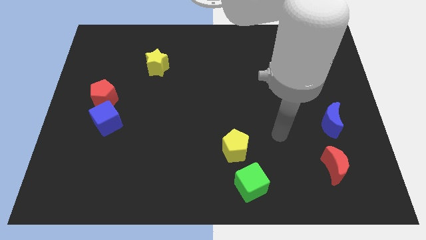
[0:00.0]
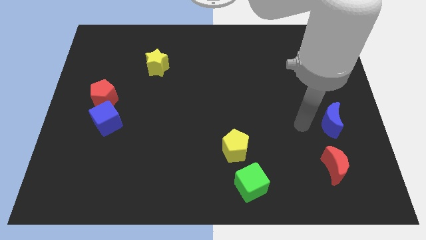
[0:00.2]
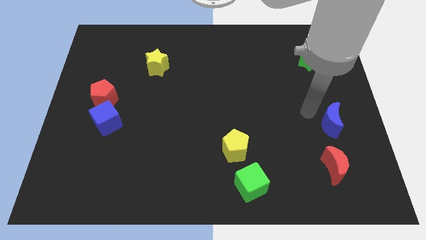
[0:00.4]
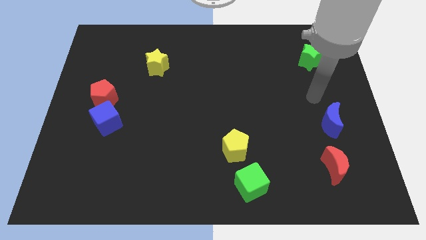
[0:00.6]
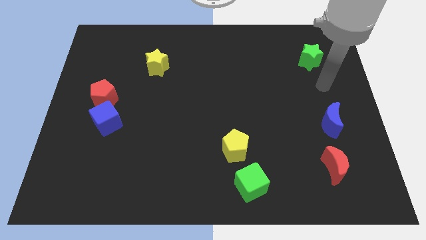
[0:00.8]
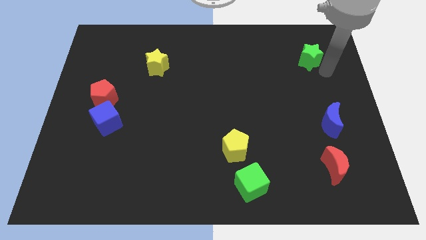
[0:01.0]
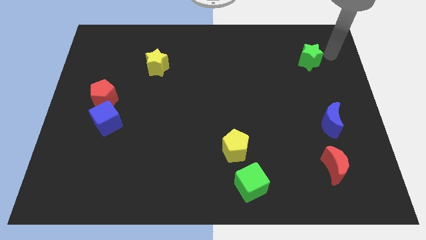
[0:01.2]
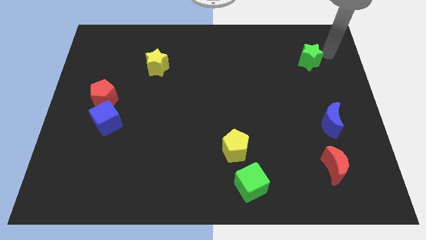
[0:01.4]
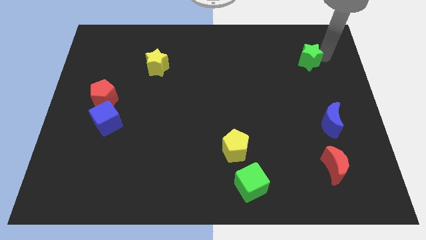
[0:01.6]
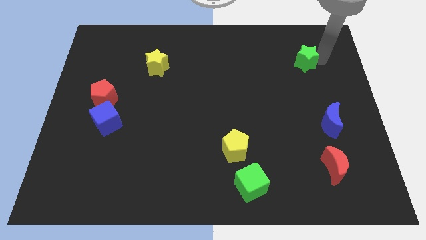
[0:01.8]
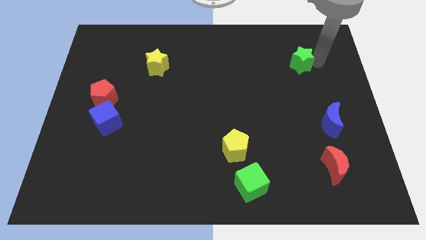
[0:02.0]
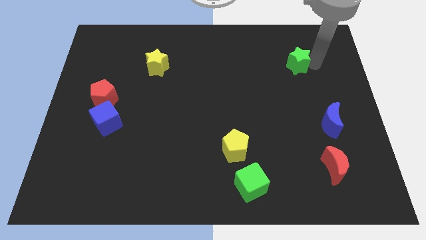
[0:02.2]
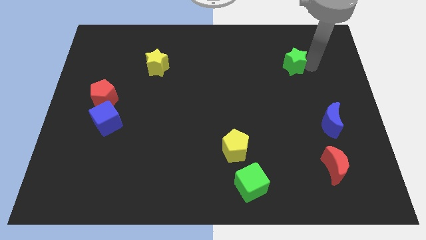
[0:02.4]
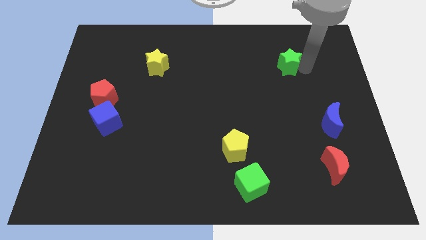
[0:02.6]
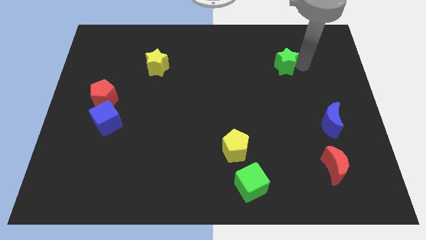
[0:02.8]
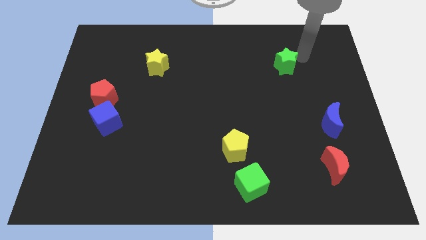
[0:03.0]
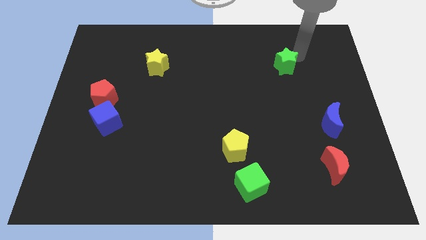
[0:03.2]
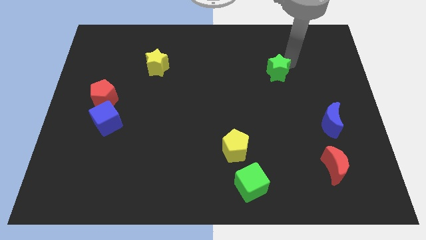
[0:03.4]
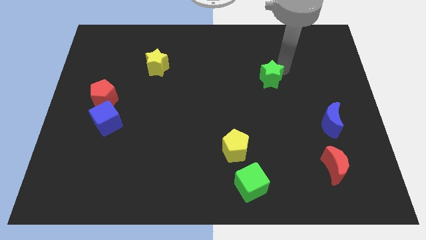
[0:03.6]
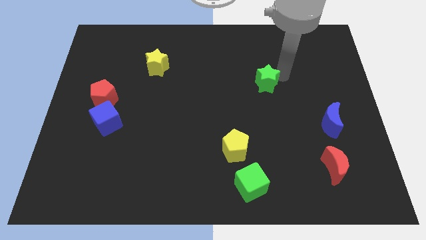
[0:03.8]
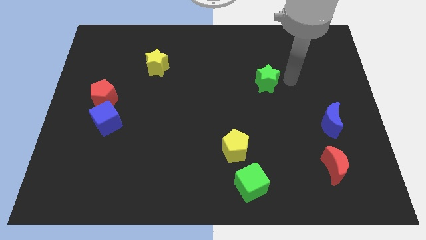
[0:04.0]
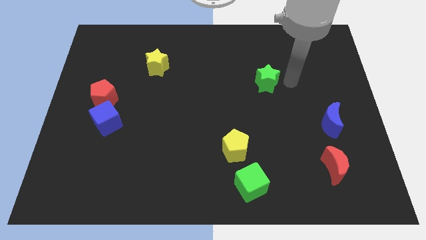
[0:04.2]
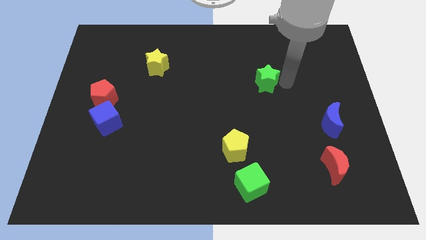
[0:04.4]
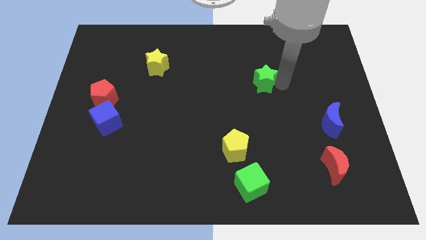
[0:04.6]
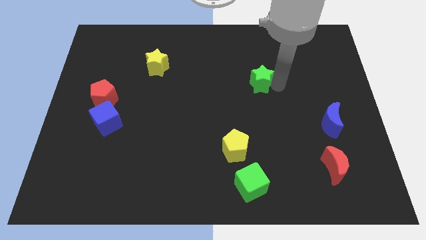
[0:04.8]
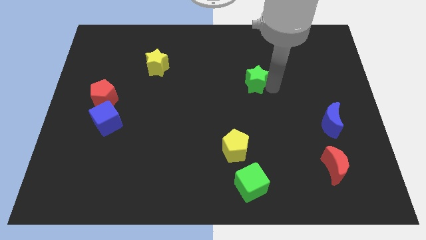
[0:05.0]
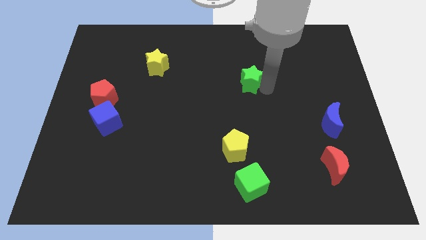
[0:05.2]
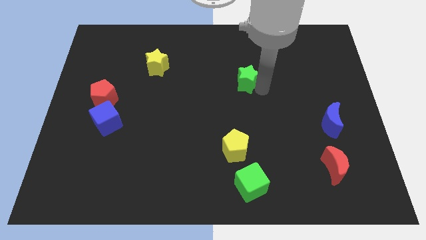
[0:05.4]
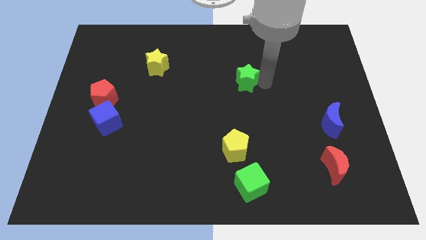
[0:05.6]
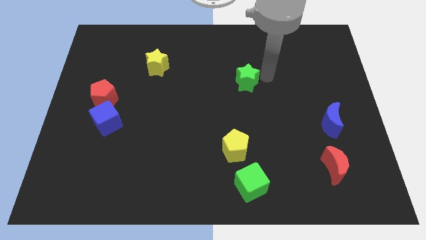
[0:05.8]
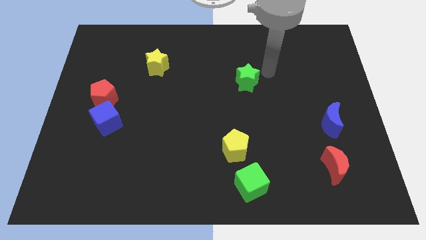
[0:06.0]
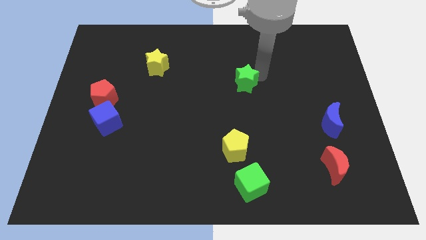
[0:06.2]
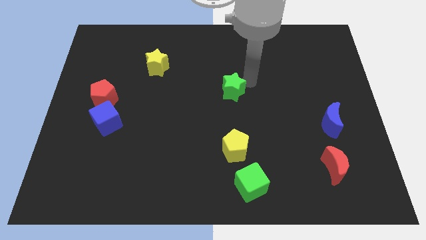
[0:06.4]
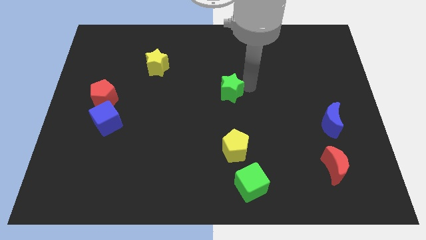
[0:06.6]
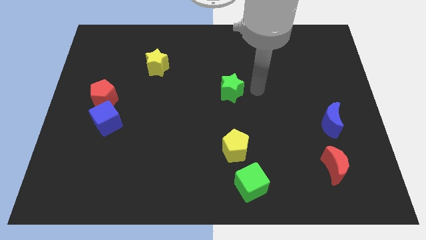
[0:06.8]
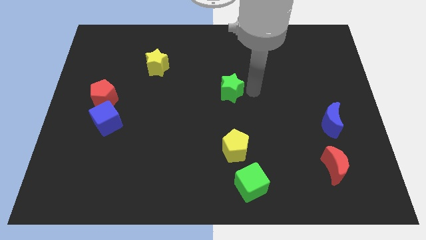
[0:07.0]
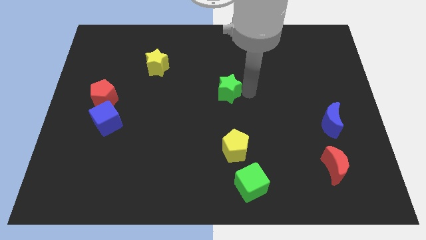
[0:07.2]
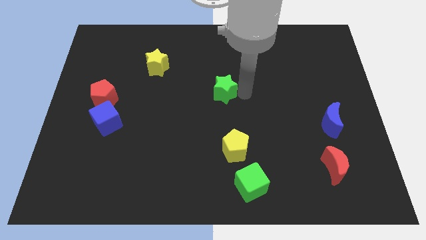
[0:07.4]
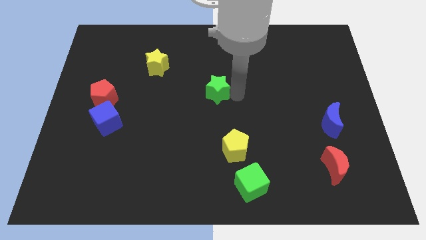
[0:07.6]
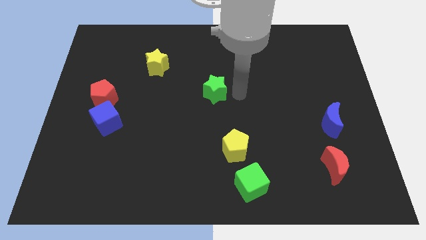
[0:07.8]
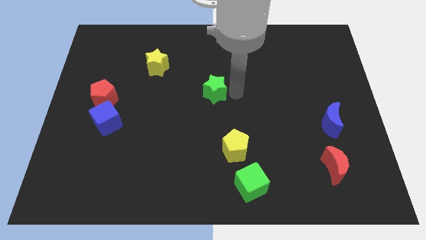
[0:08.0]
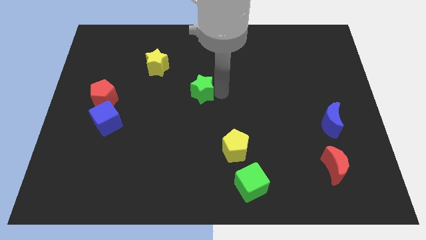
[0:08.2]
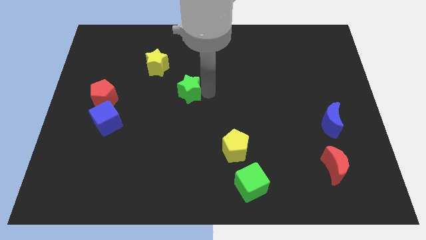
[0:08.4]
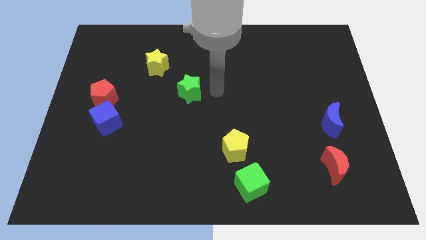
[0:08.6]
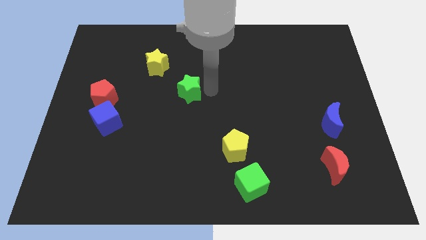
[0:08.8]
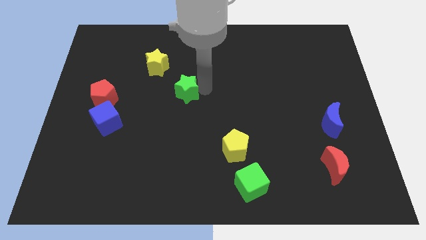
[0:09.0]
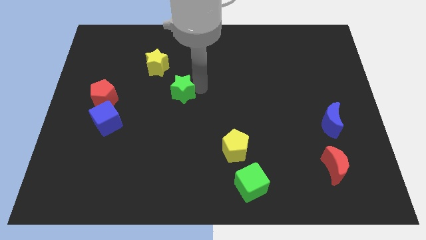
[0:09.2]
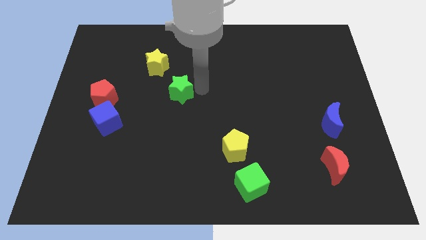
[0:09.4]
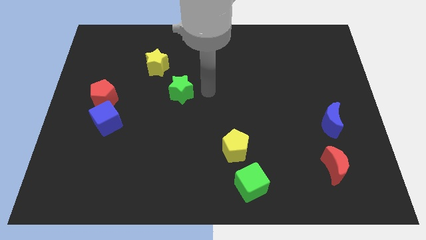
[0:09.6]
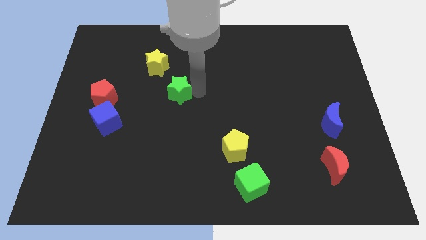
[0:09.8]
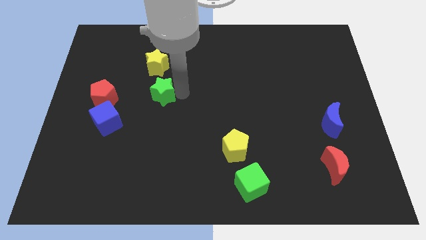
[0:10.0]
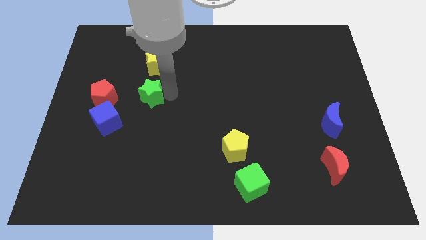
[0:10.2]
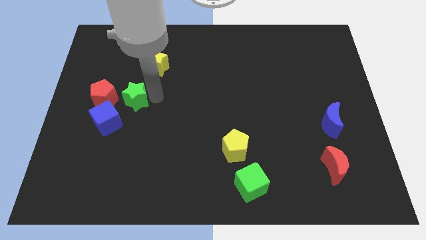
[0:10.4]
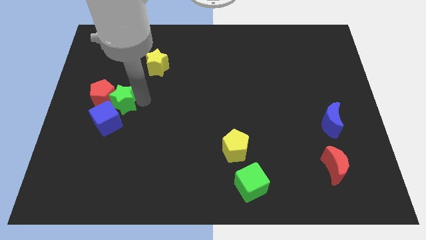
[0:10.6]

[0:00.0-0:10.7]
put the green star towards the red pentagon

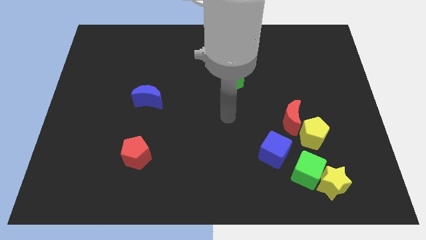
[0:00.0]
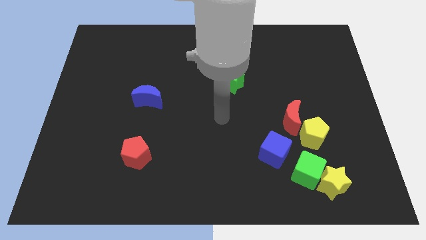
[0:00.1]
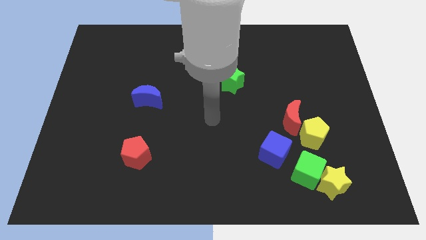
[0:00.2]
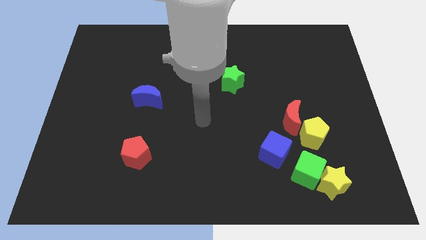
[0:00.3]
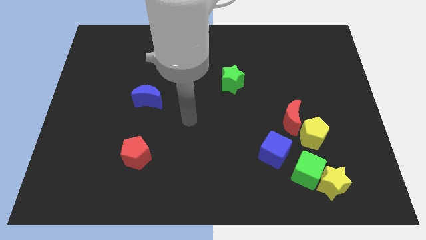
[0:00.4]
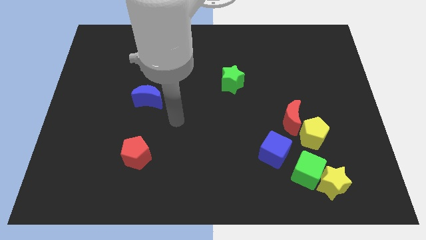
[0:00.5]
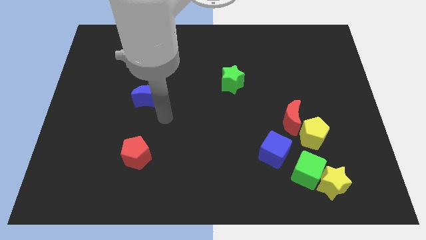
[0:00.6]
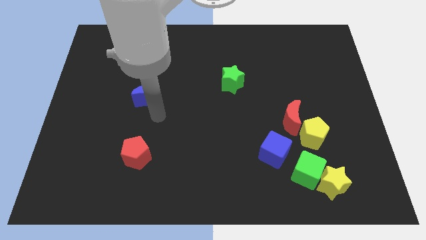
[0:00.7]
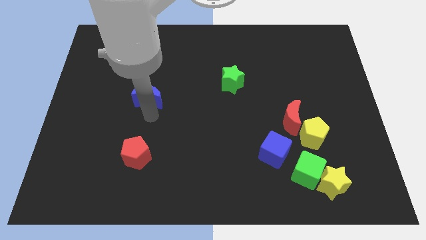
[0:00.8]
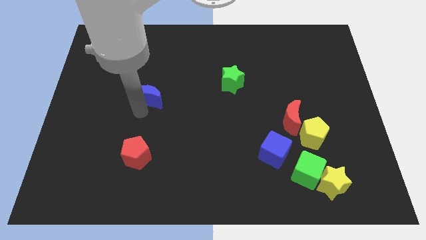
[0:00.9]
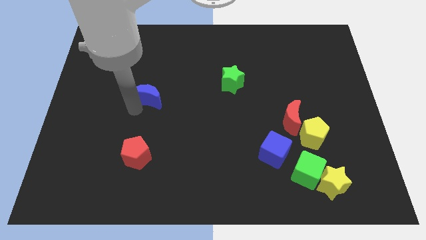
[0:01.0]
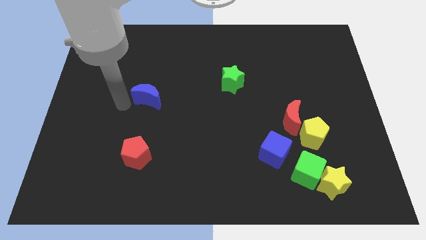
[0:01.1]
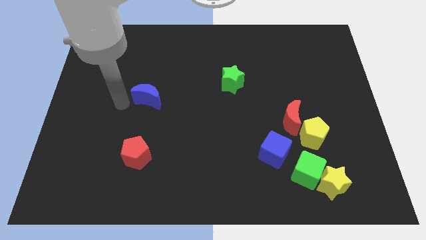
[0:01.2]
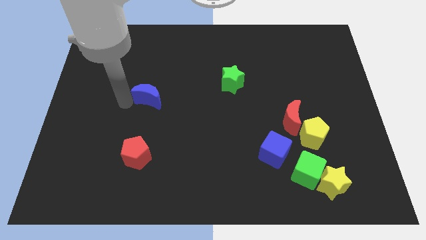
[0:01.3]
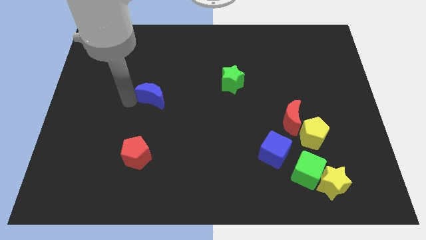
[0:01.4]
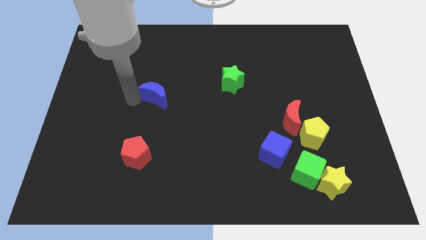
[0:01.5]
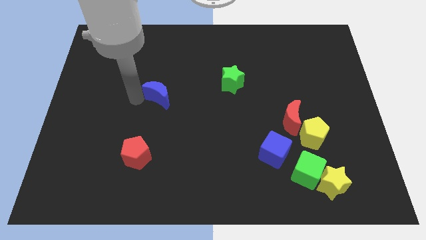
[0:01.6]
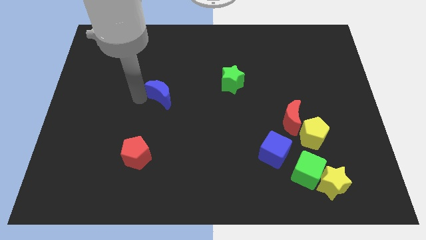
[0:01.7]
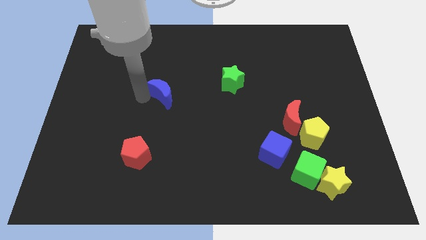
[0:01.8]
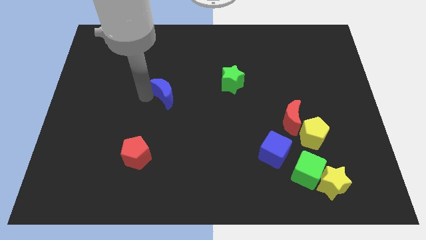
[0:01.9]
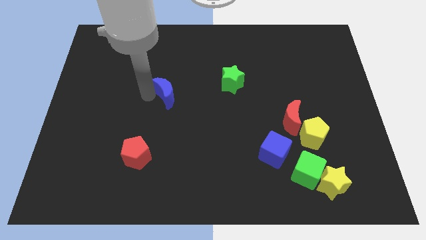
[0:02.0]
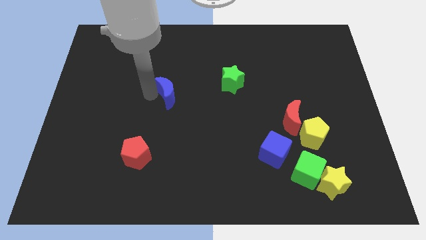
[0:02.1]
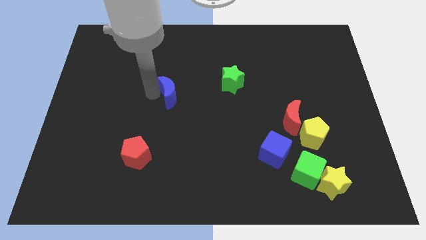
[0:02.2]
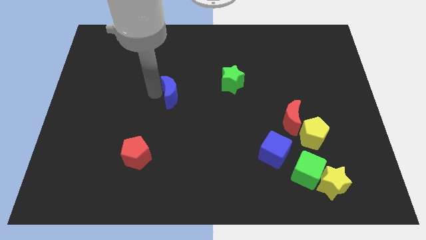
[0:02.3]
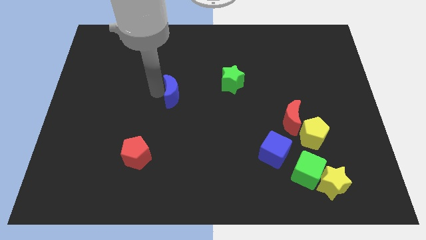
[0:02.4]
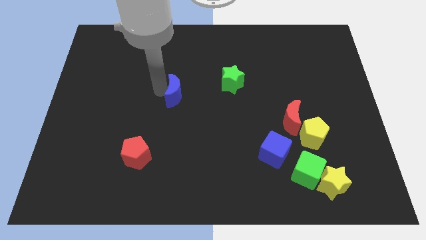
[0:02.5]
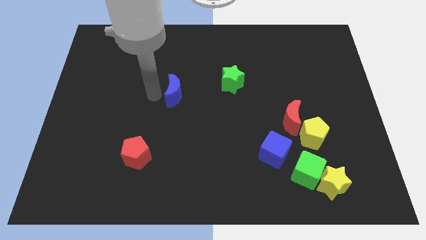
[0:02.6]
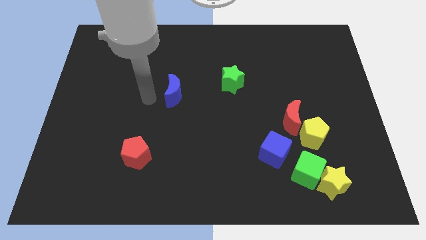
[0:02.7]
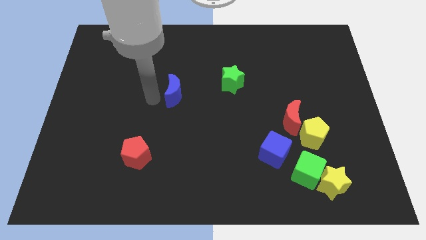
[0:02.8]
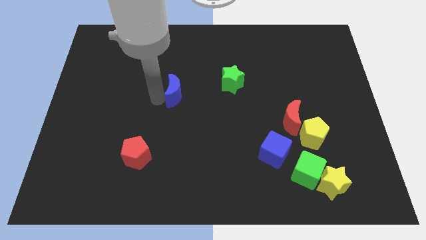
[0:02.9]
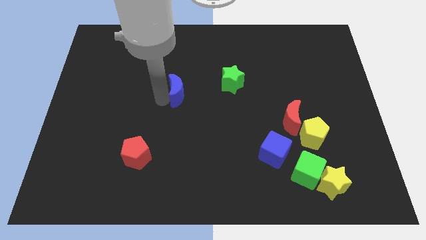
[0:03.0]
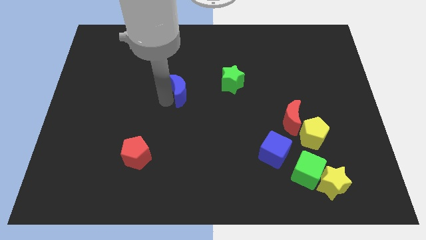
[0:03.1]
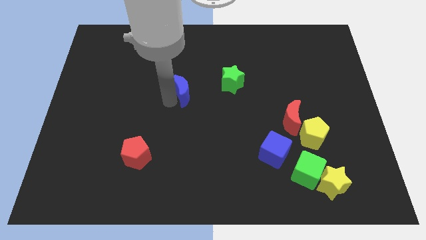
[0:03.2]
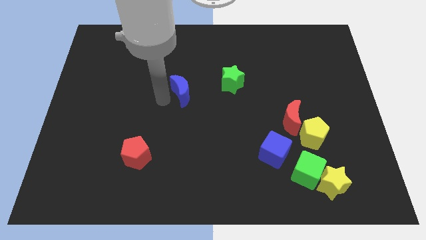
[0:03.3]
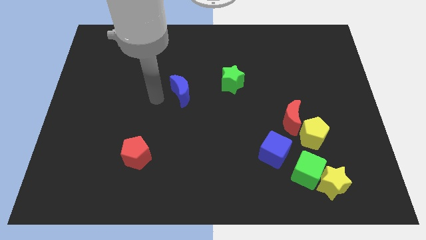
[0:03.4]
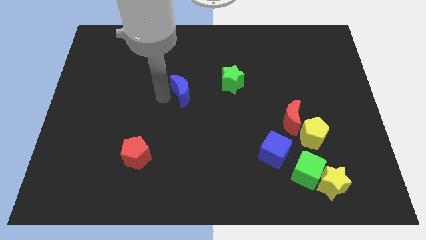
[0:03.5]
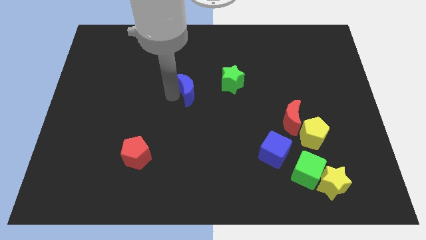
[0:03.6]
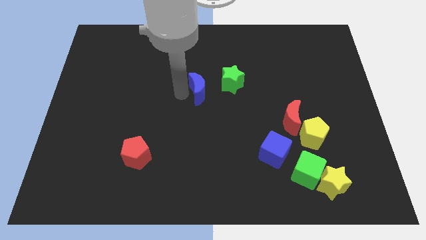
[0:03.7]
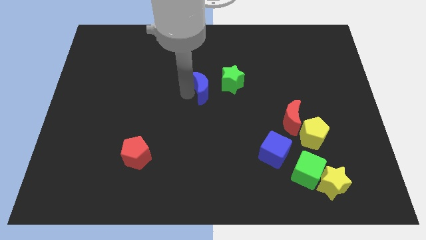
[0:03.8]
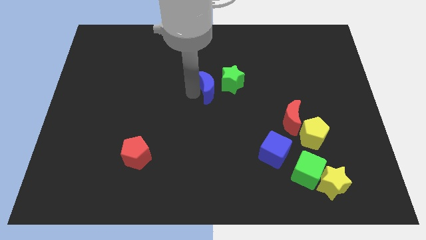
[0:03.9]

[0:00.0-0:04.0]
push the blue moon towards the green star
